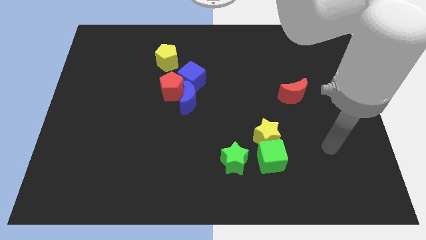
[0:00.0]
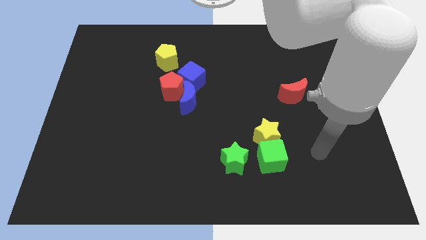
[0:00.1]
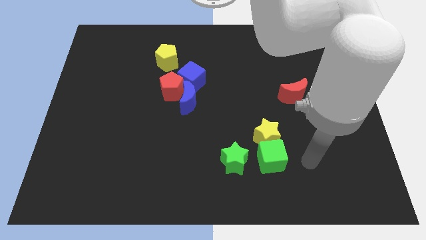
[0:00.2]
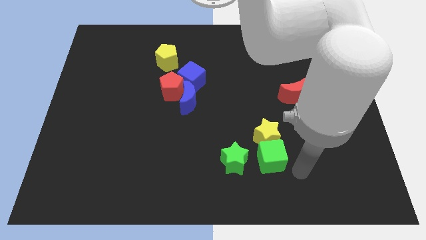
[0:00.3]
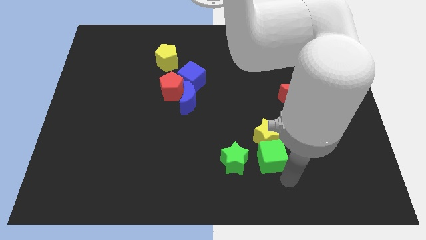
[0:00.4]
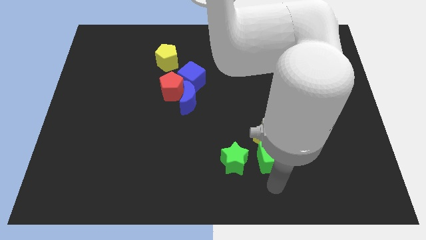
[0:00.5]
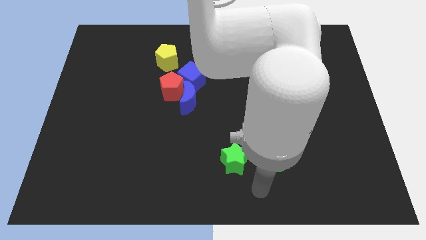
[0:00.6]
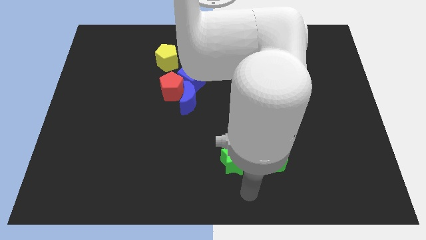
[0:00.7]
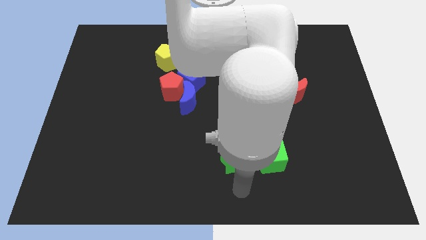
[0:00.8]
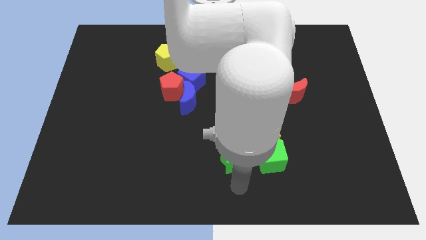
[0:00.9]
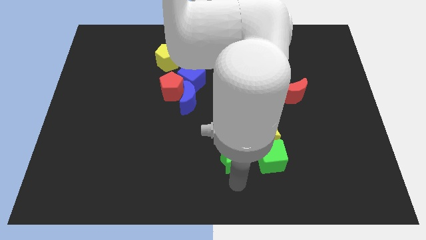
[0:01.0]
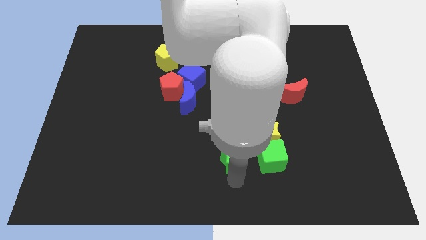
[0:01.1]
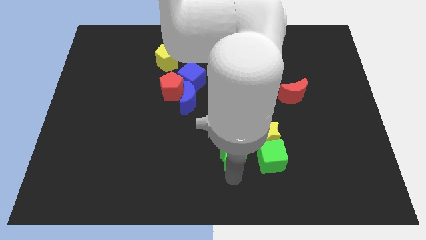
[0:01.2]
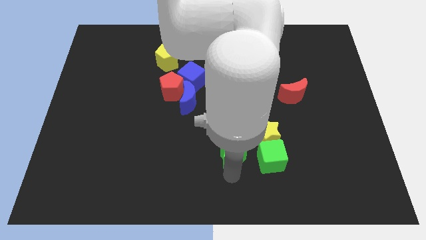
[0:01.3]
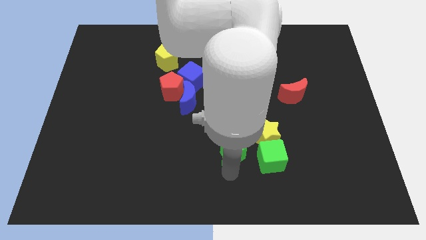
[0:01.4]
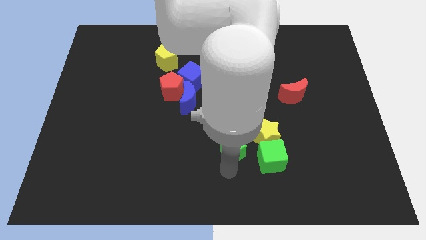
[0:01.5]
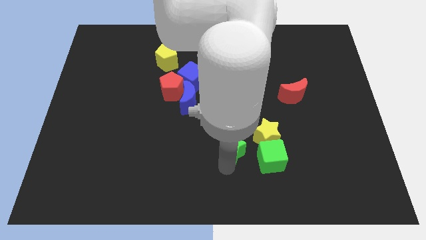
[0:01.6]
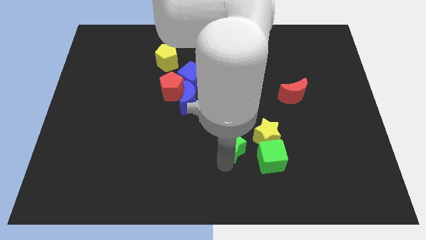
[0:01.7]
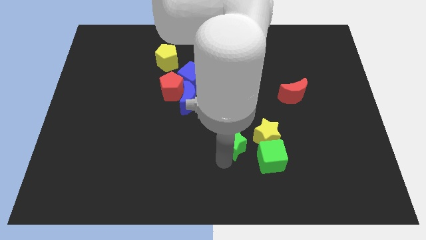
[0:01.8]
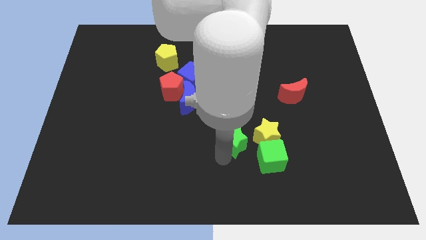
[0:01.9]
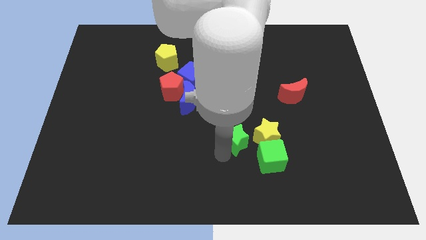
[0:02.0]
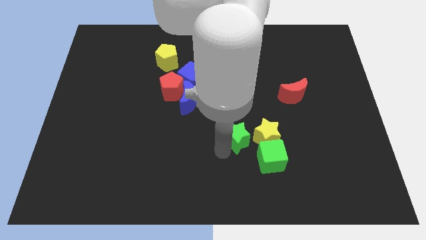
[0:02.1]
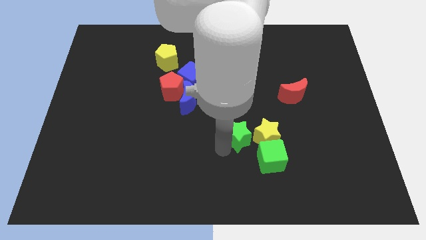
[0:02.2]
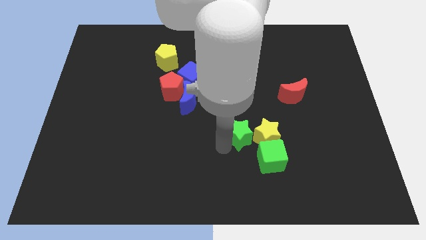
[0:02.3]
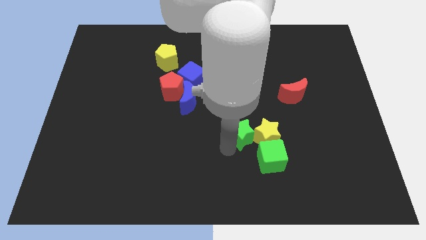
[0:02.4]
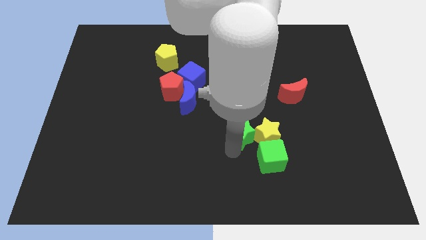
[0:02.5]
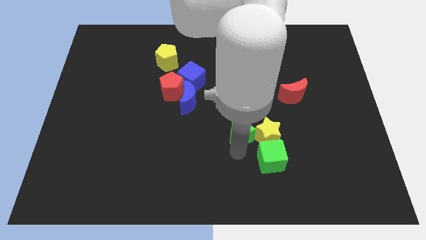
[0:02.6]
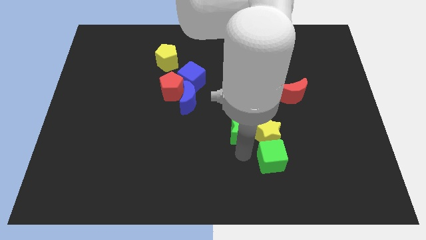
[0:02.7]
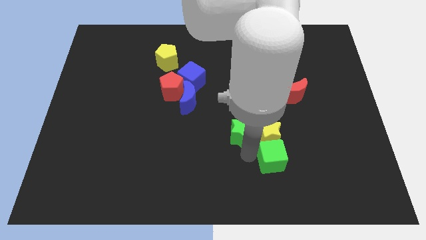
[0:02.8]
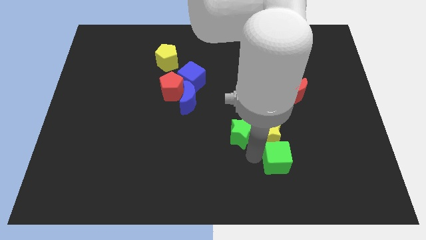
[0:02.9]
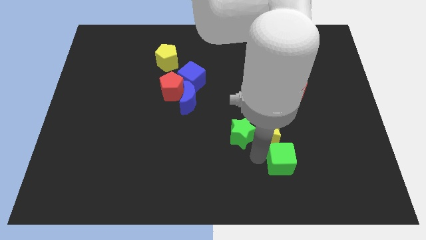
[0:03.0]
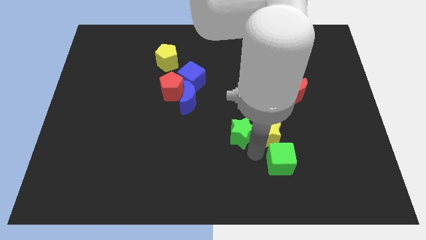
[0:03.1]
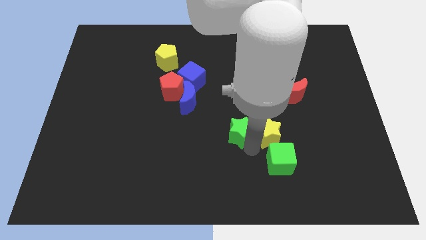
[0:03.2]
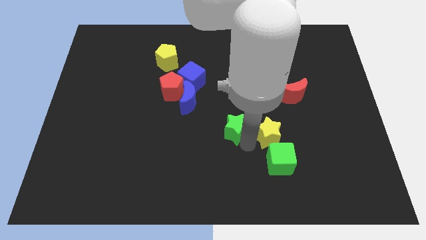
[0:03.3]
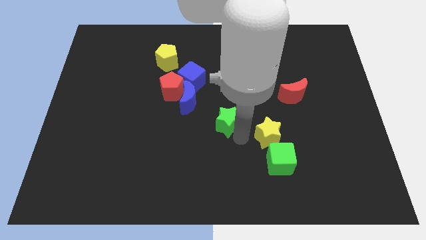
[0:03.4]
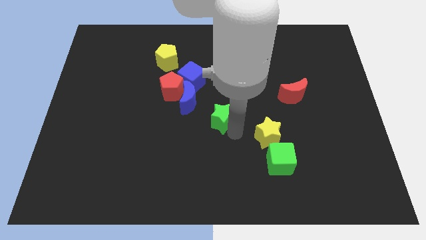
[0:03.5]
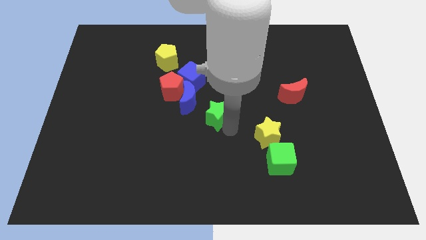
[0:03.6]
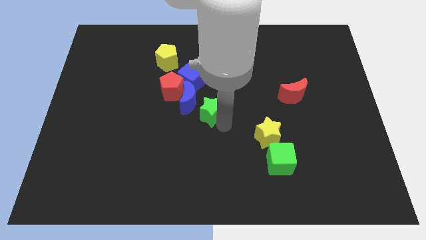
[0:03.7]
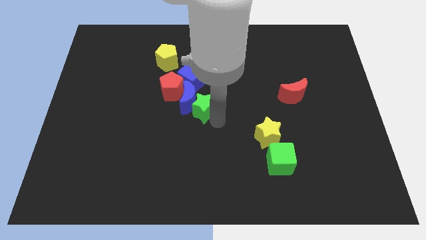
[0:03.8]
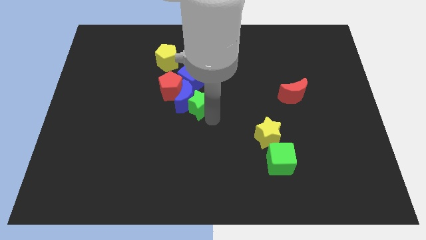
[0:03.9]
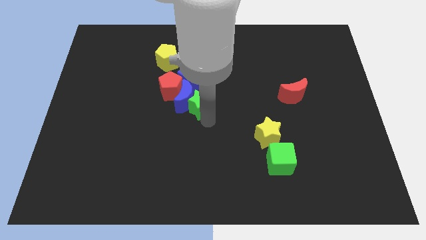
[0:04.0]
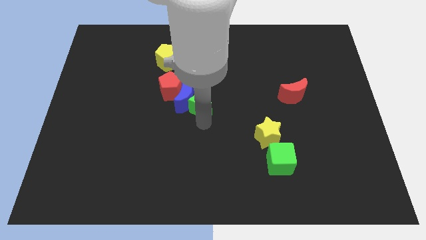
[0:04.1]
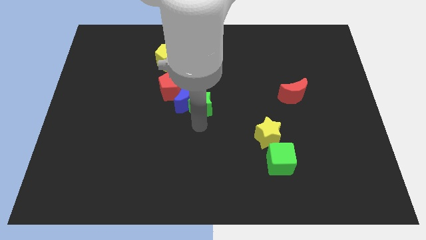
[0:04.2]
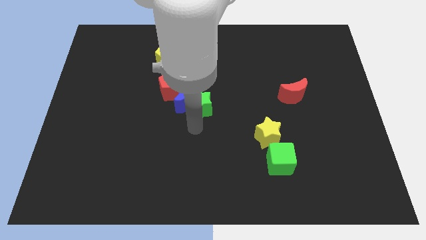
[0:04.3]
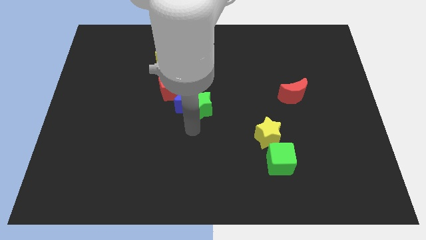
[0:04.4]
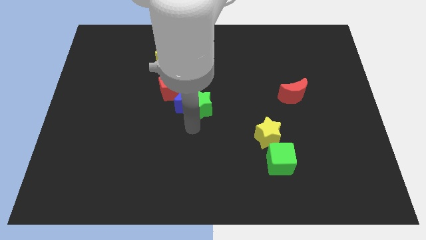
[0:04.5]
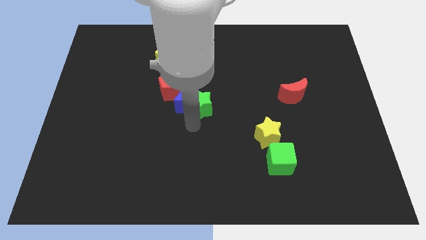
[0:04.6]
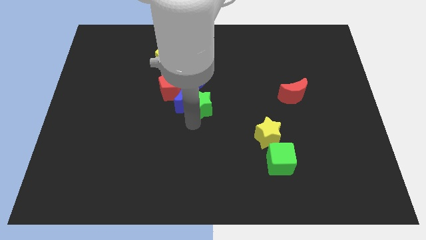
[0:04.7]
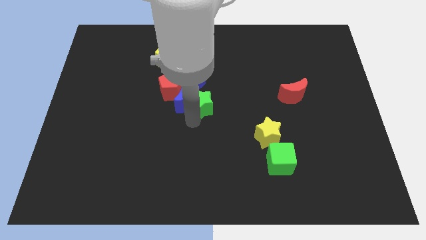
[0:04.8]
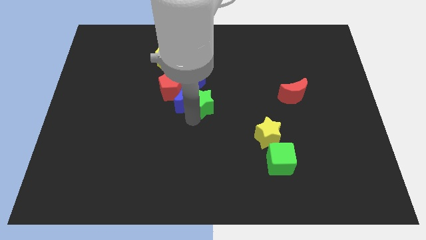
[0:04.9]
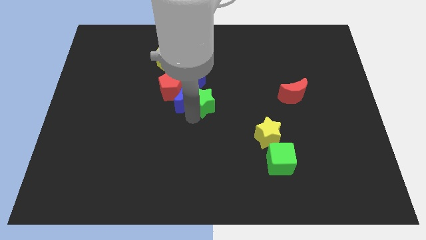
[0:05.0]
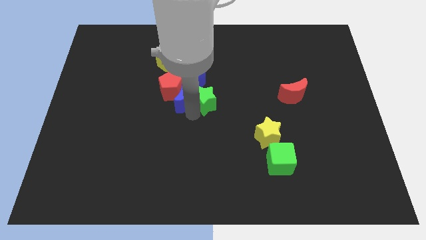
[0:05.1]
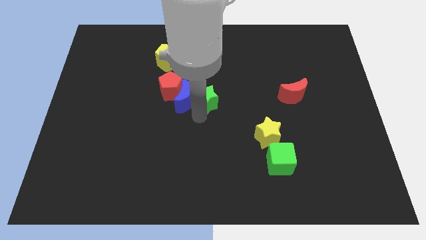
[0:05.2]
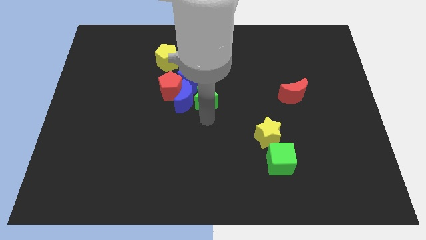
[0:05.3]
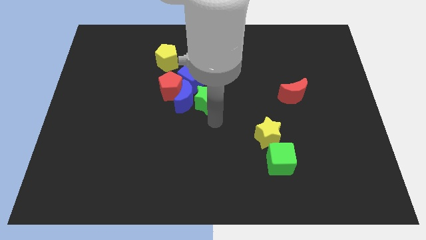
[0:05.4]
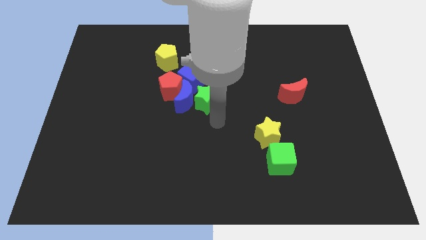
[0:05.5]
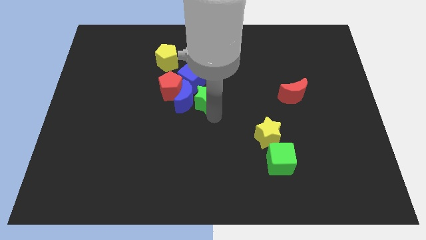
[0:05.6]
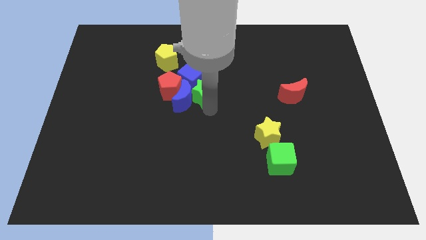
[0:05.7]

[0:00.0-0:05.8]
slide the green star towards the blue cube
